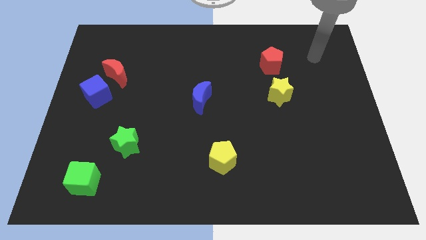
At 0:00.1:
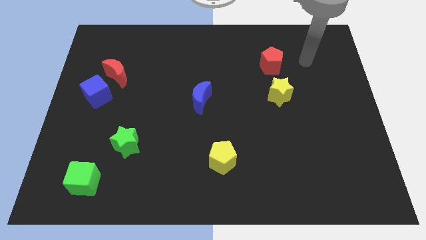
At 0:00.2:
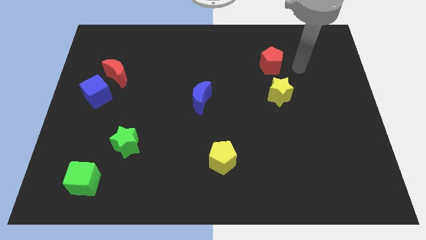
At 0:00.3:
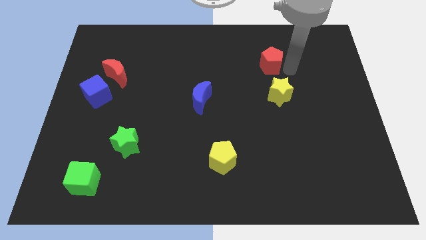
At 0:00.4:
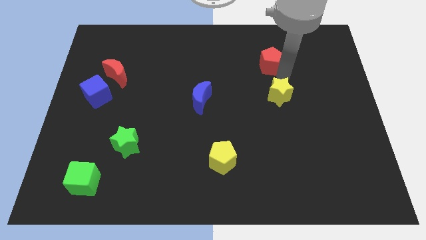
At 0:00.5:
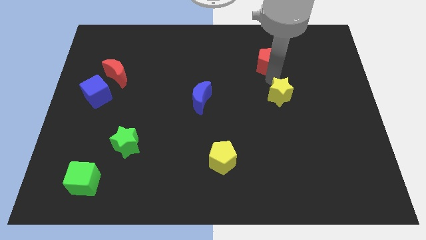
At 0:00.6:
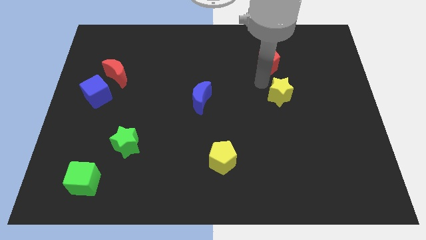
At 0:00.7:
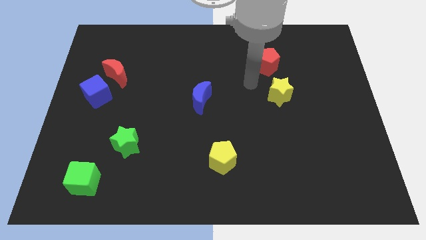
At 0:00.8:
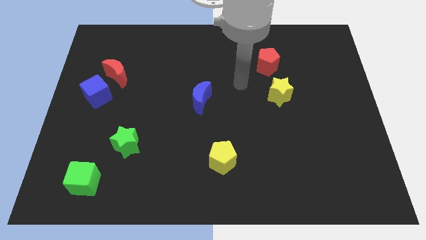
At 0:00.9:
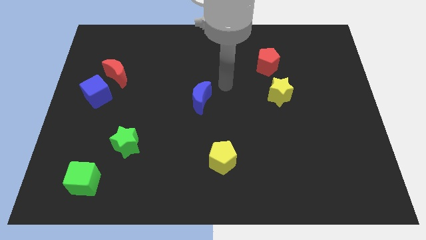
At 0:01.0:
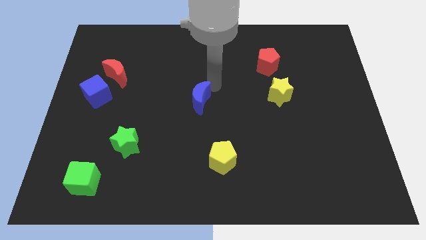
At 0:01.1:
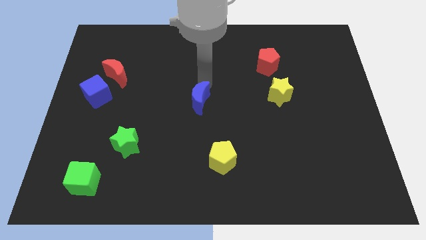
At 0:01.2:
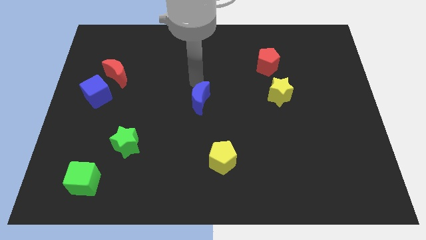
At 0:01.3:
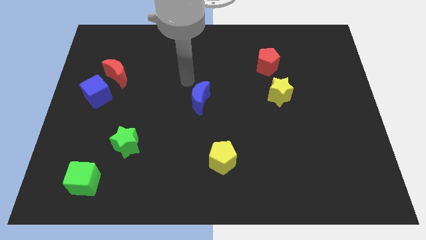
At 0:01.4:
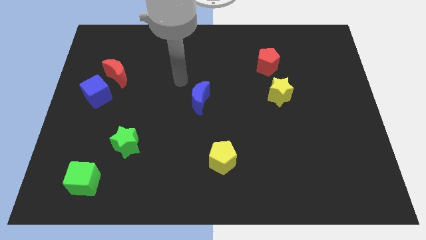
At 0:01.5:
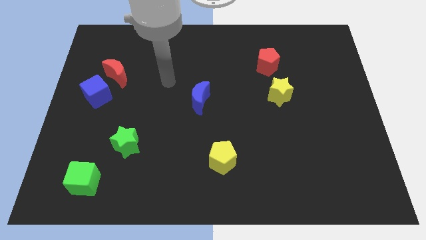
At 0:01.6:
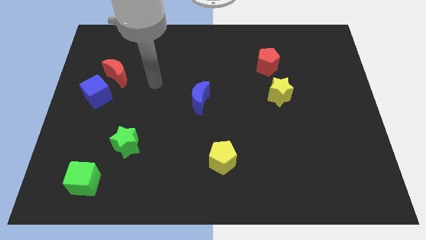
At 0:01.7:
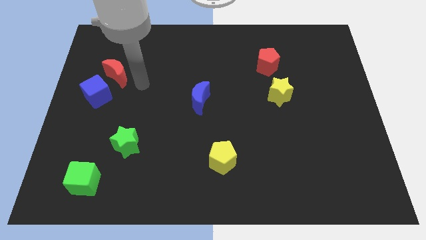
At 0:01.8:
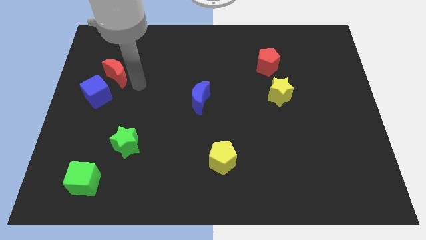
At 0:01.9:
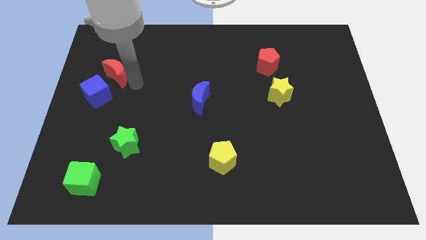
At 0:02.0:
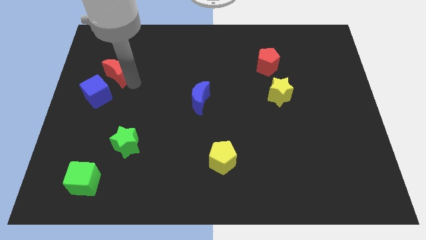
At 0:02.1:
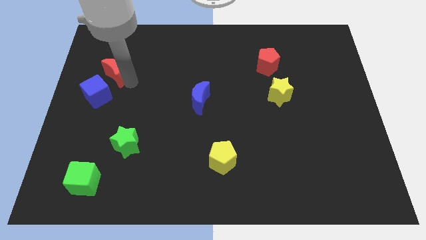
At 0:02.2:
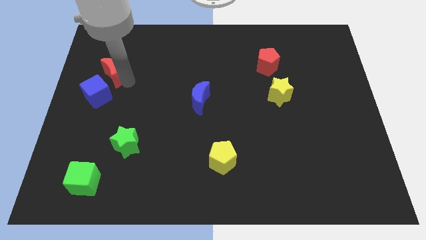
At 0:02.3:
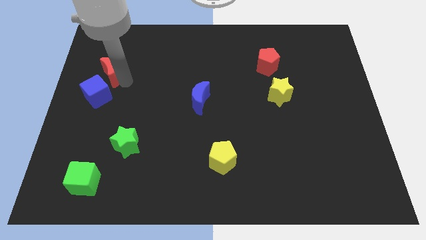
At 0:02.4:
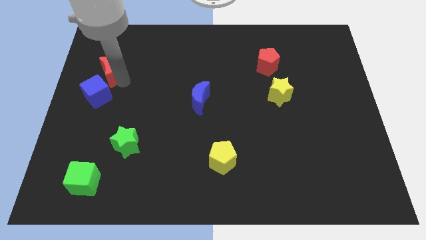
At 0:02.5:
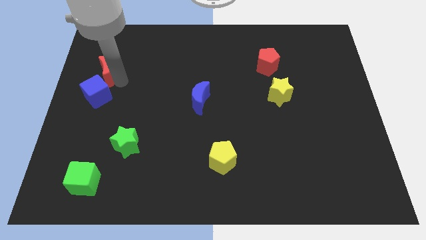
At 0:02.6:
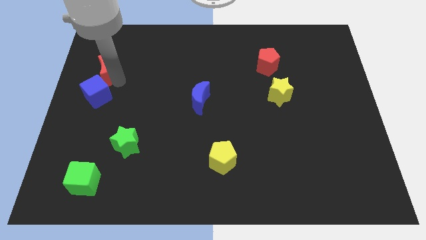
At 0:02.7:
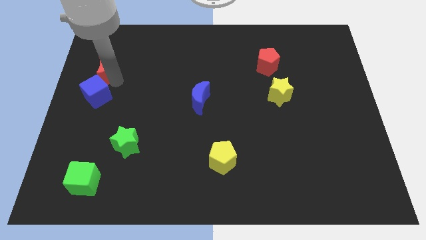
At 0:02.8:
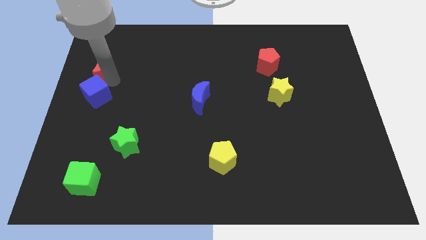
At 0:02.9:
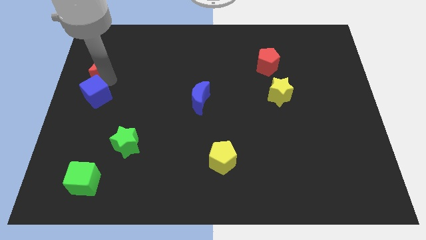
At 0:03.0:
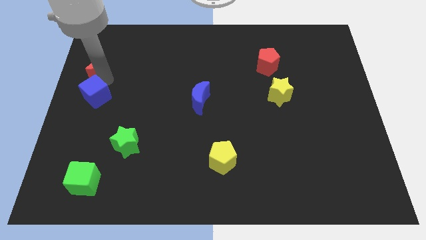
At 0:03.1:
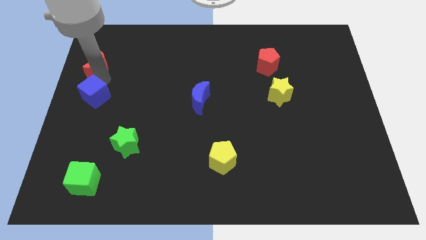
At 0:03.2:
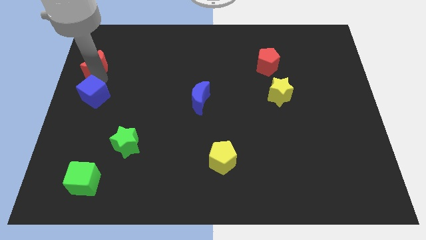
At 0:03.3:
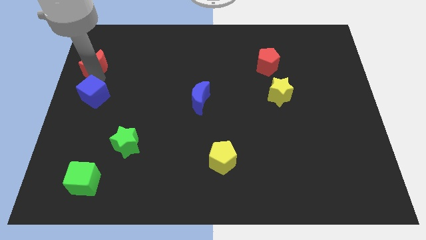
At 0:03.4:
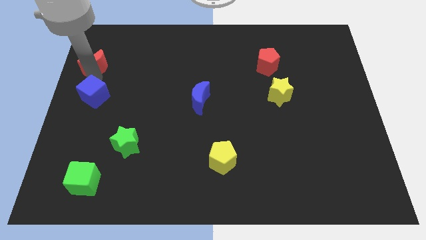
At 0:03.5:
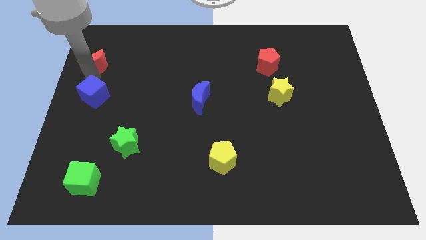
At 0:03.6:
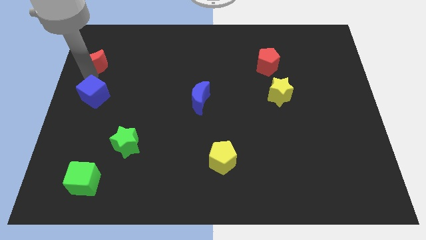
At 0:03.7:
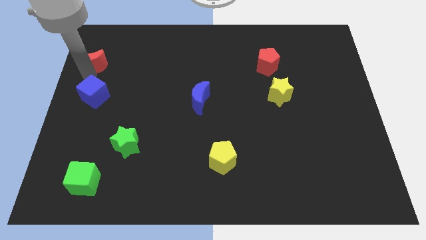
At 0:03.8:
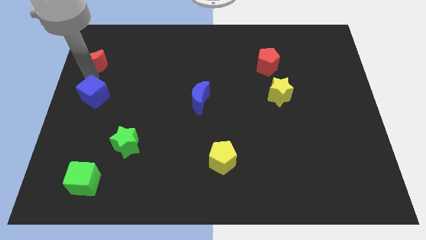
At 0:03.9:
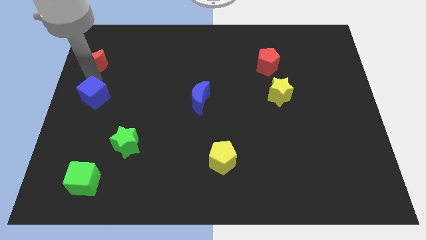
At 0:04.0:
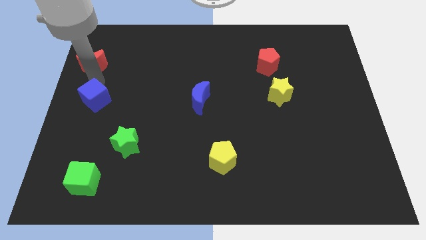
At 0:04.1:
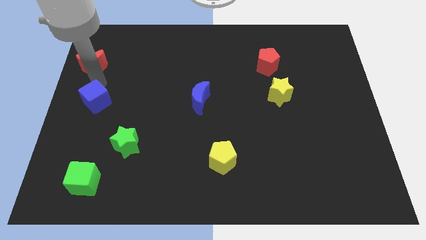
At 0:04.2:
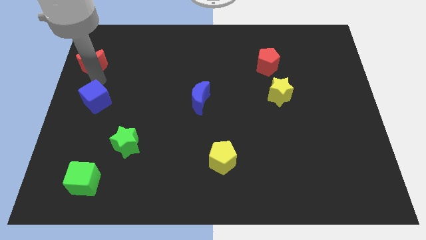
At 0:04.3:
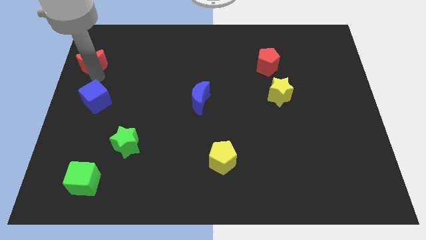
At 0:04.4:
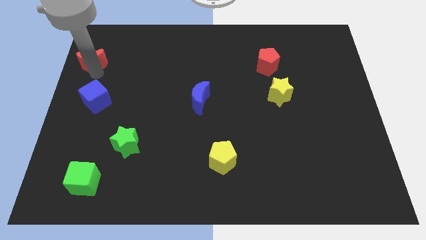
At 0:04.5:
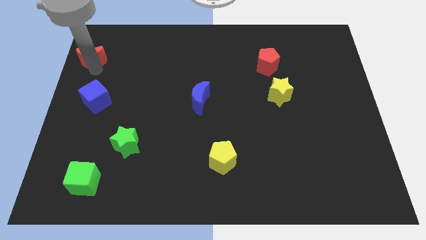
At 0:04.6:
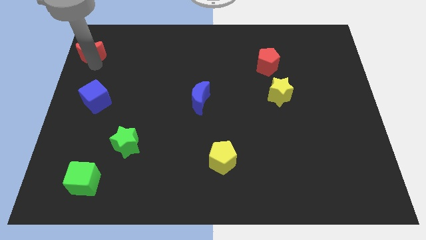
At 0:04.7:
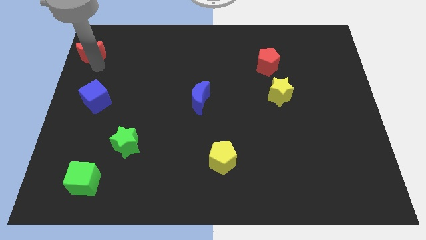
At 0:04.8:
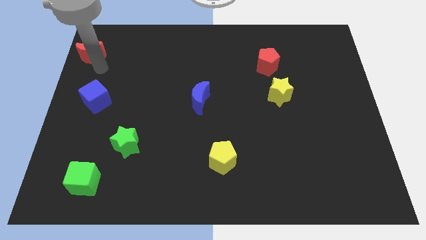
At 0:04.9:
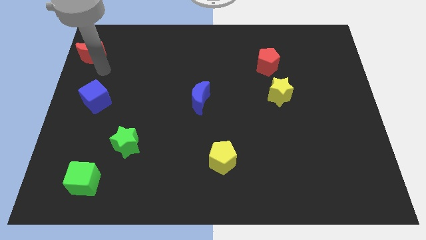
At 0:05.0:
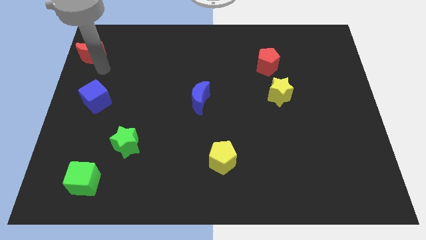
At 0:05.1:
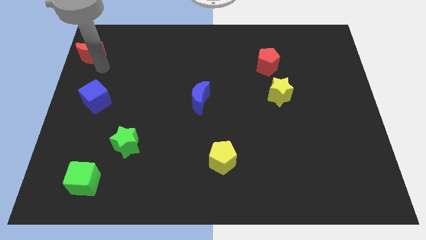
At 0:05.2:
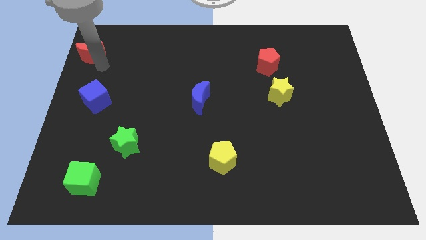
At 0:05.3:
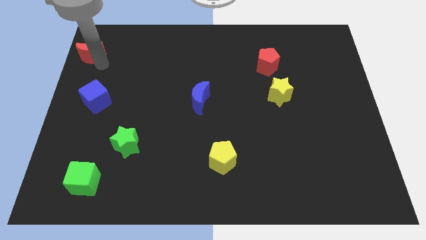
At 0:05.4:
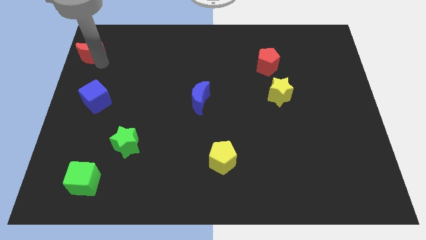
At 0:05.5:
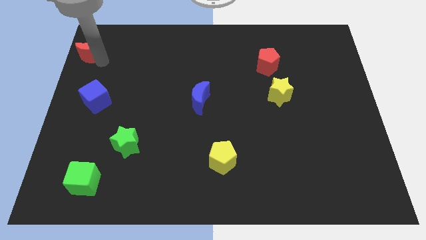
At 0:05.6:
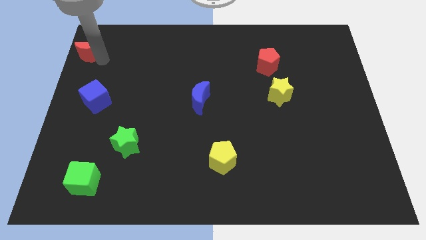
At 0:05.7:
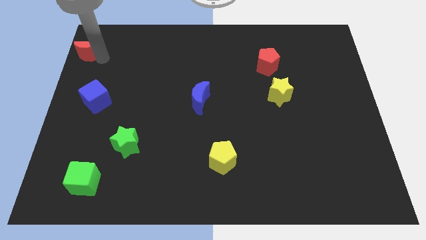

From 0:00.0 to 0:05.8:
put the red moon to the top left corner
